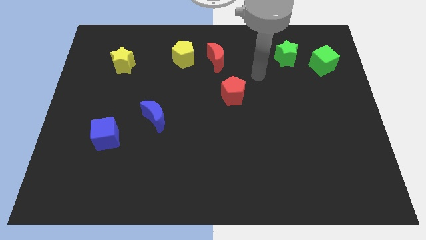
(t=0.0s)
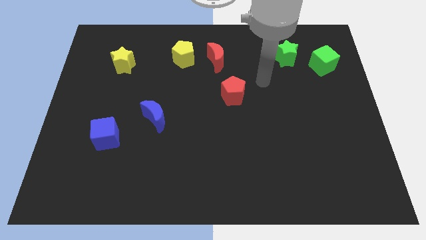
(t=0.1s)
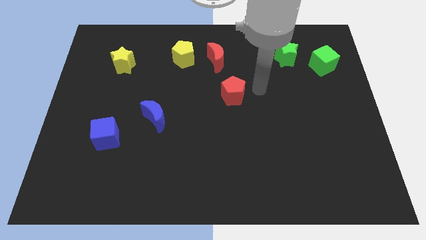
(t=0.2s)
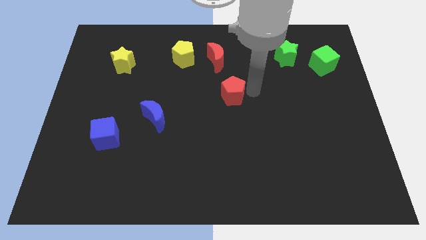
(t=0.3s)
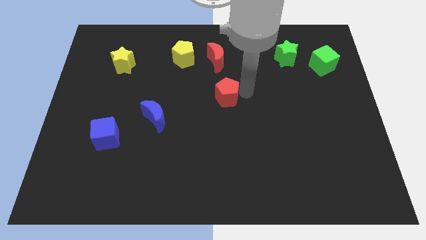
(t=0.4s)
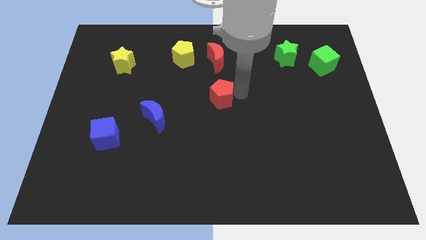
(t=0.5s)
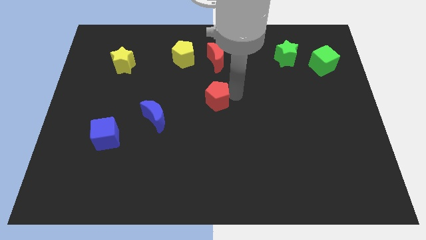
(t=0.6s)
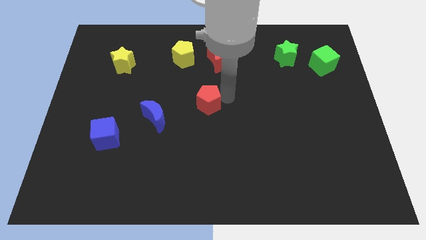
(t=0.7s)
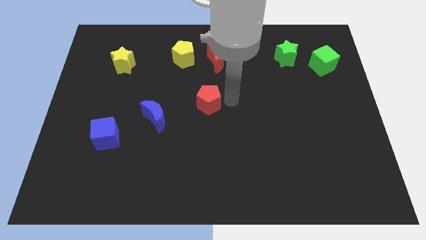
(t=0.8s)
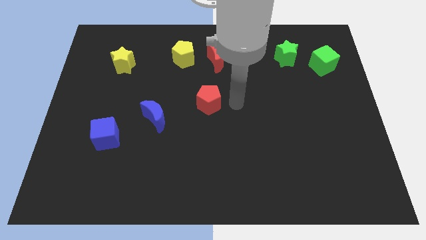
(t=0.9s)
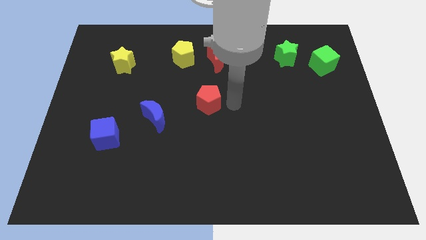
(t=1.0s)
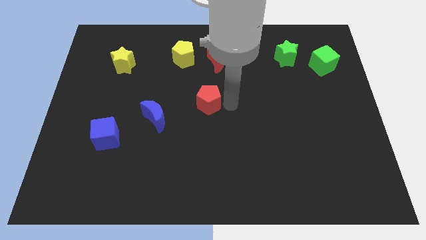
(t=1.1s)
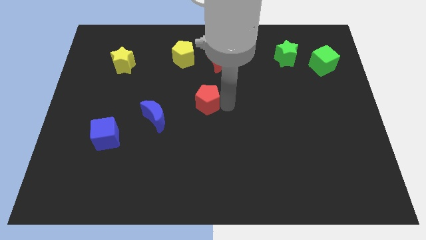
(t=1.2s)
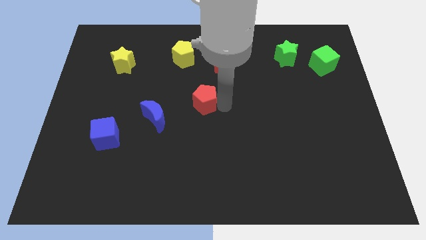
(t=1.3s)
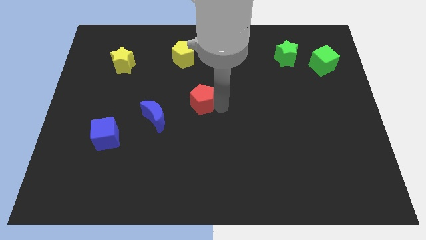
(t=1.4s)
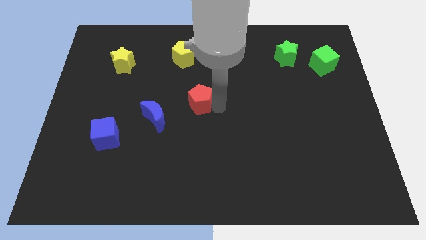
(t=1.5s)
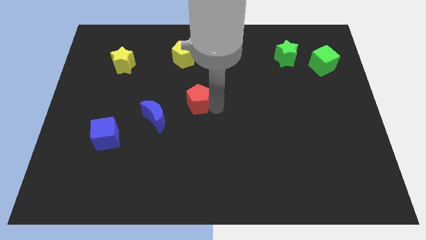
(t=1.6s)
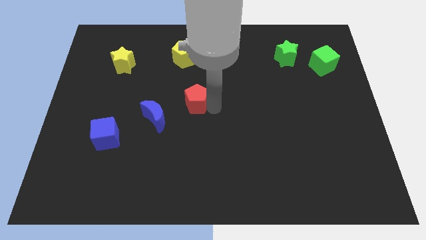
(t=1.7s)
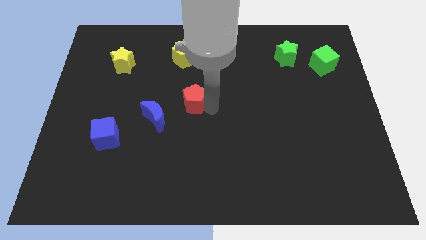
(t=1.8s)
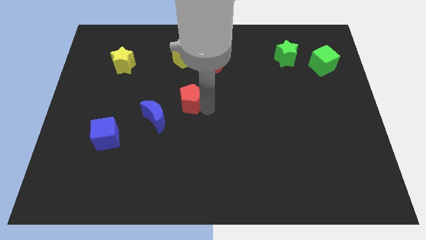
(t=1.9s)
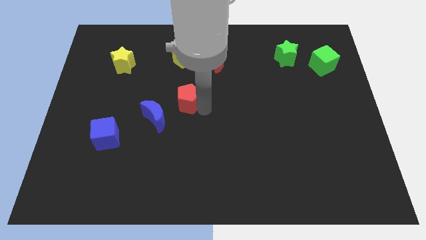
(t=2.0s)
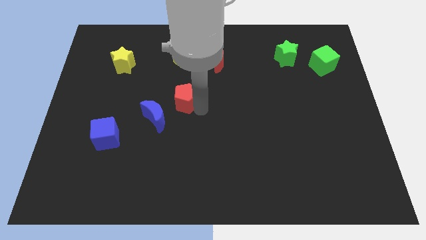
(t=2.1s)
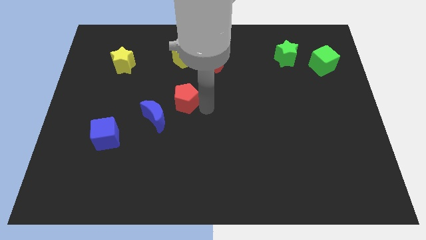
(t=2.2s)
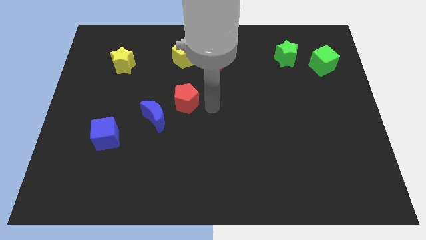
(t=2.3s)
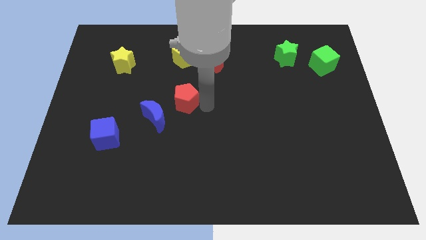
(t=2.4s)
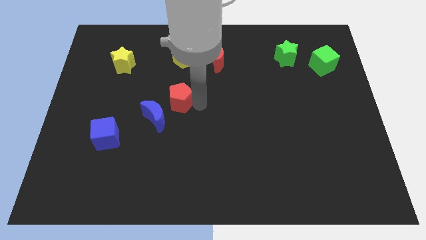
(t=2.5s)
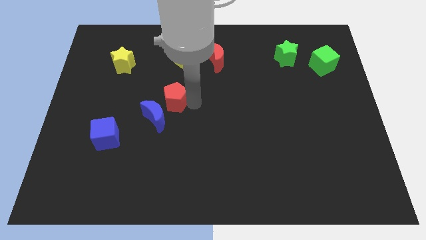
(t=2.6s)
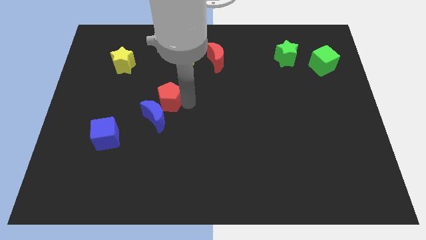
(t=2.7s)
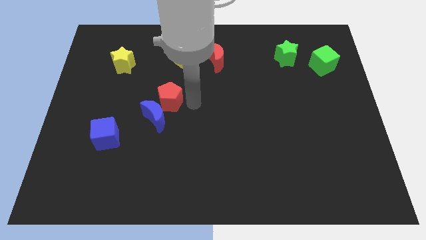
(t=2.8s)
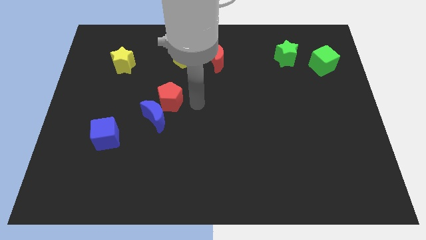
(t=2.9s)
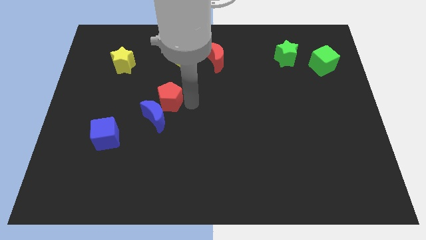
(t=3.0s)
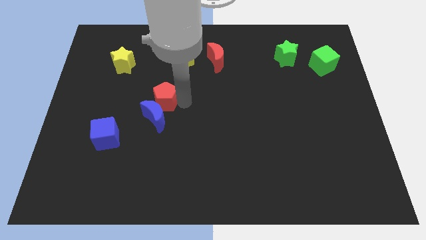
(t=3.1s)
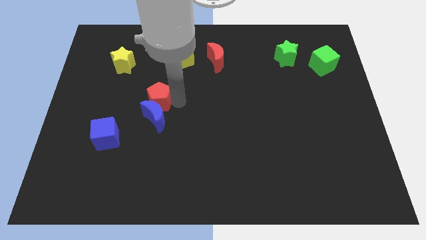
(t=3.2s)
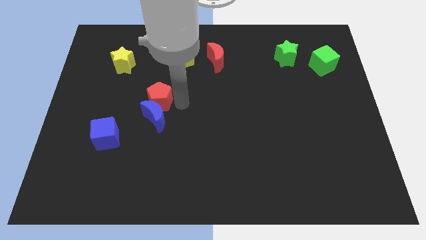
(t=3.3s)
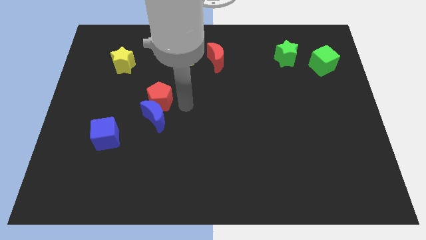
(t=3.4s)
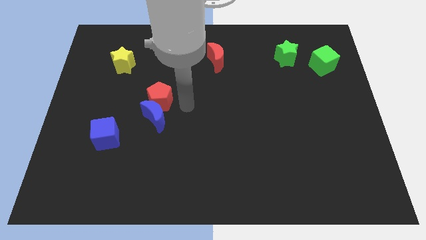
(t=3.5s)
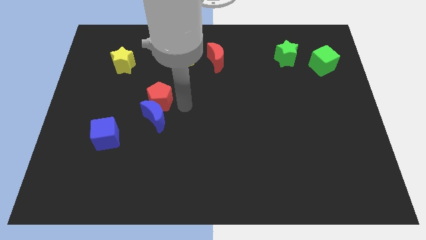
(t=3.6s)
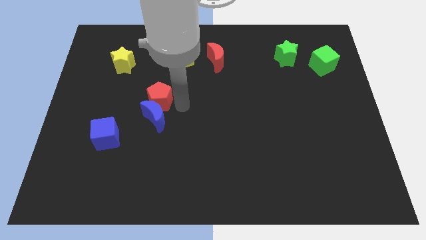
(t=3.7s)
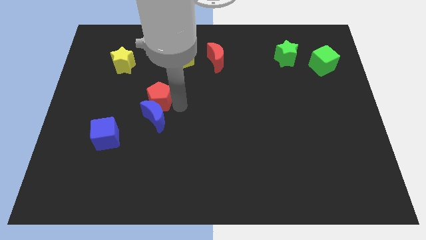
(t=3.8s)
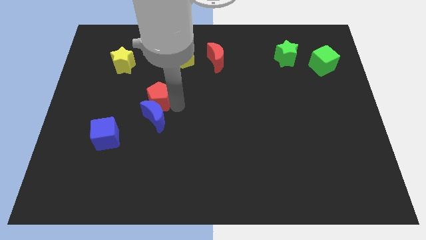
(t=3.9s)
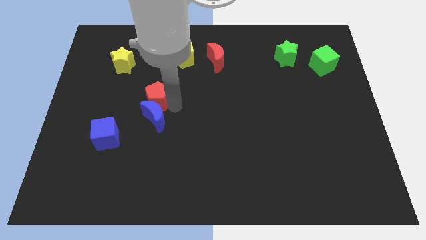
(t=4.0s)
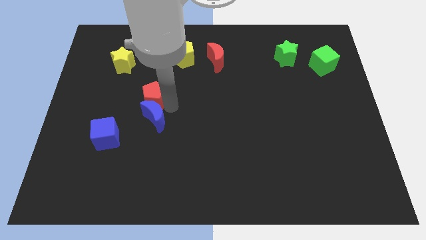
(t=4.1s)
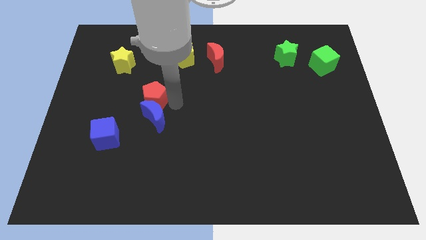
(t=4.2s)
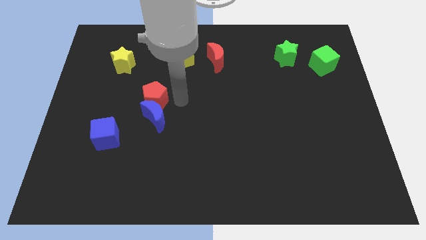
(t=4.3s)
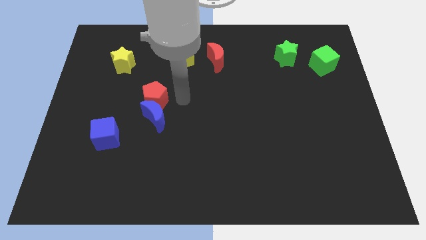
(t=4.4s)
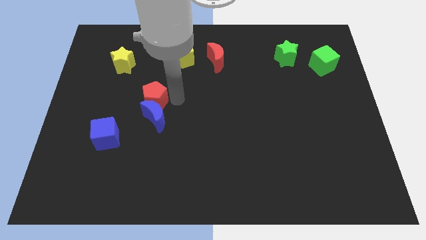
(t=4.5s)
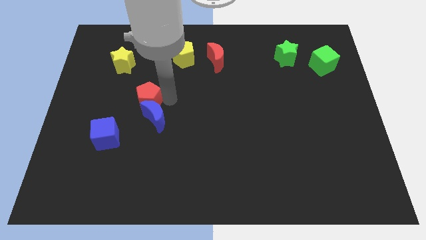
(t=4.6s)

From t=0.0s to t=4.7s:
slide the red pentagon left

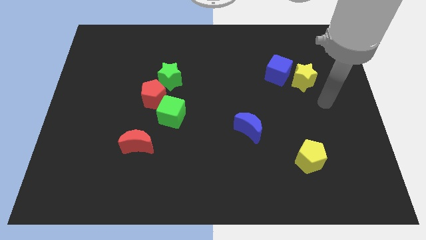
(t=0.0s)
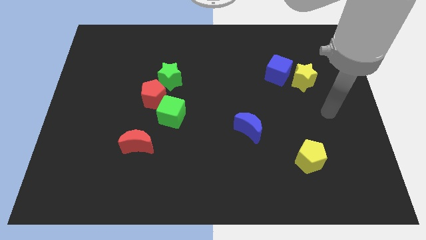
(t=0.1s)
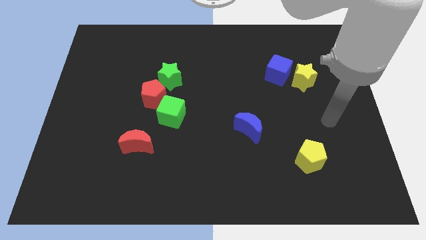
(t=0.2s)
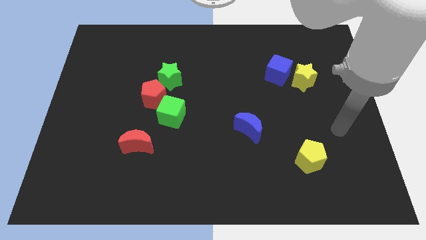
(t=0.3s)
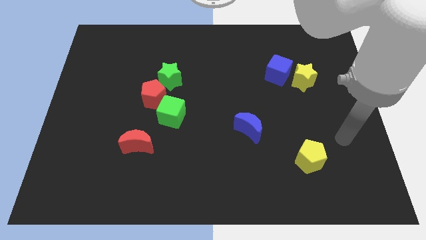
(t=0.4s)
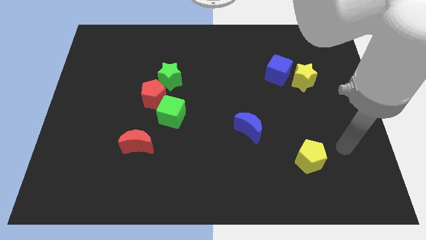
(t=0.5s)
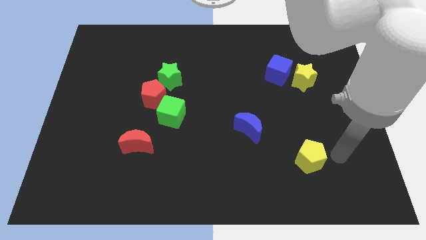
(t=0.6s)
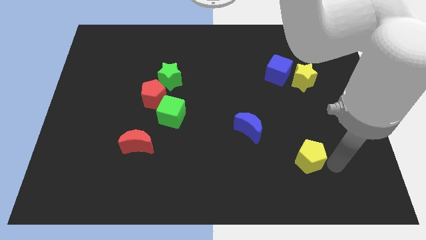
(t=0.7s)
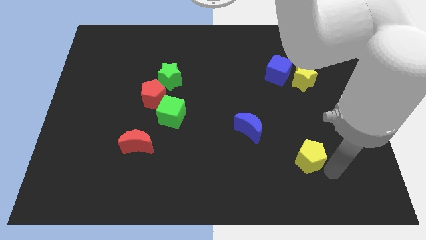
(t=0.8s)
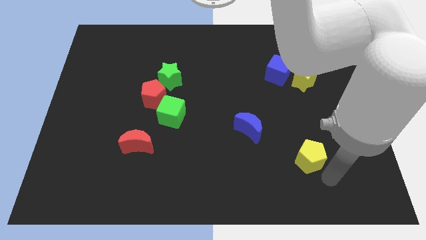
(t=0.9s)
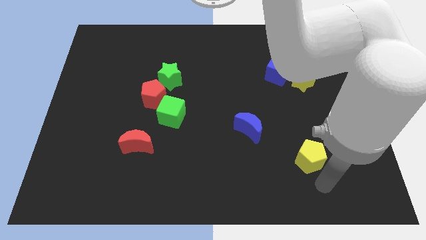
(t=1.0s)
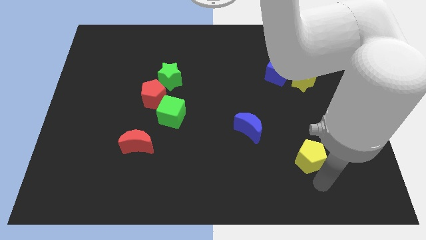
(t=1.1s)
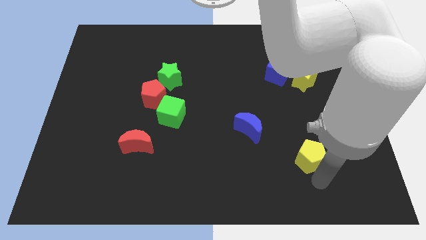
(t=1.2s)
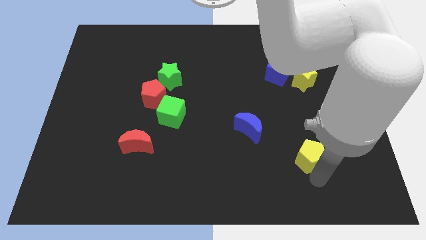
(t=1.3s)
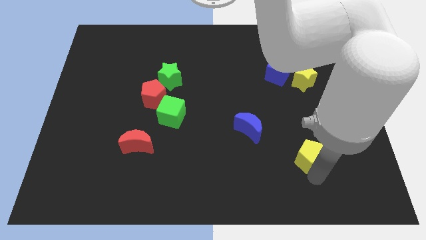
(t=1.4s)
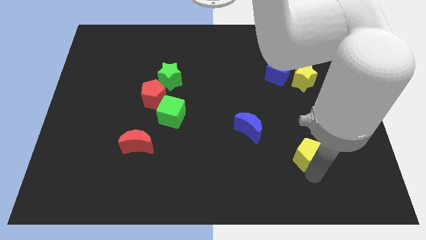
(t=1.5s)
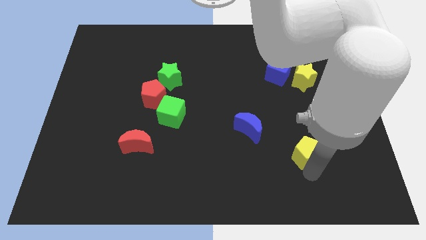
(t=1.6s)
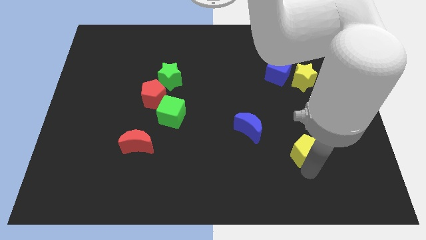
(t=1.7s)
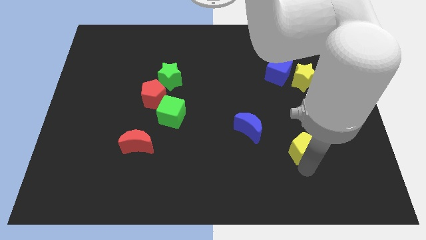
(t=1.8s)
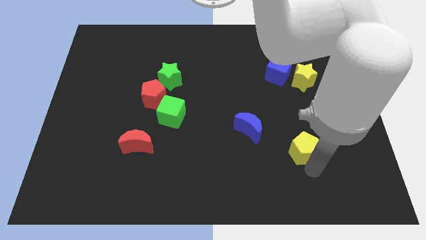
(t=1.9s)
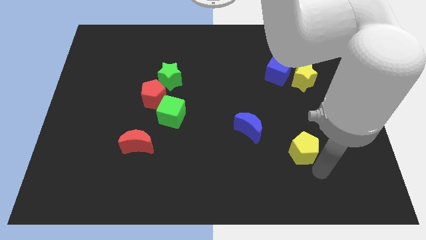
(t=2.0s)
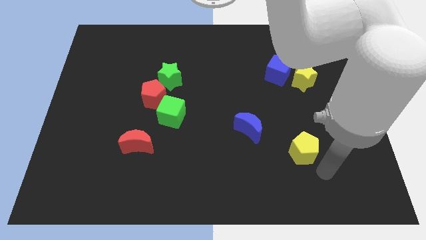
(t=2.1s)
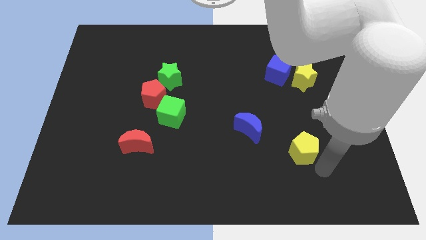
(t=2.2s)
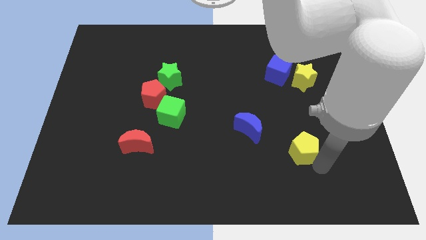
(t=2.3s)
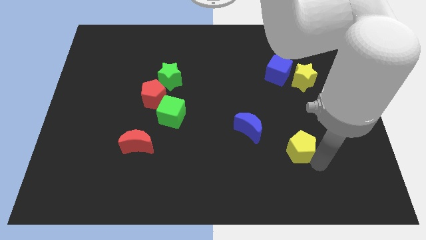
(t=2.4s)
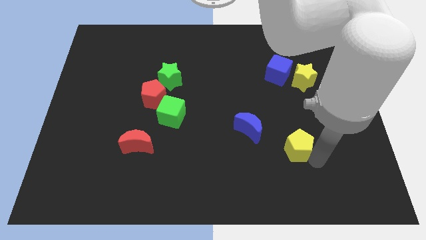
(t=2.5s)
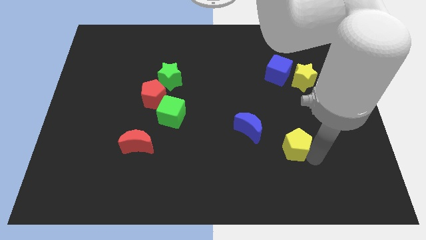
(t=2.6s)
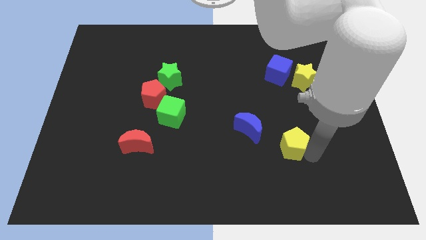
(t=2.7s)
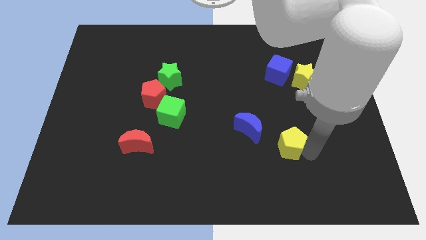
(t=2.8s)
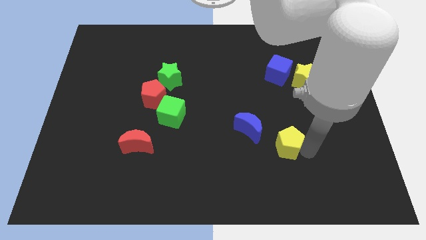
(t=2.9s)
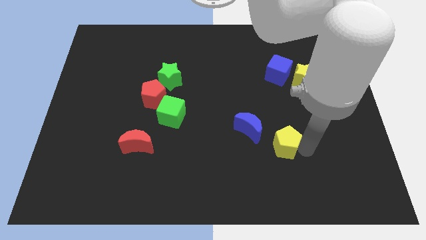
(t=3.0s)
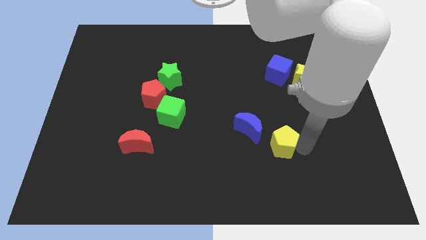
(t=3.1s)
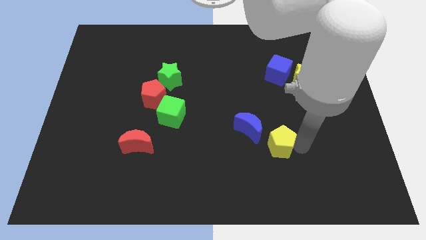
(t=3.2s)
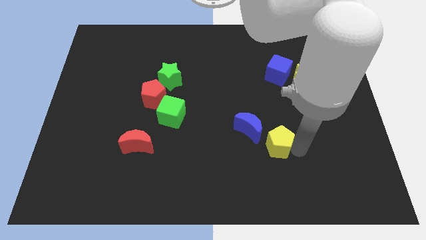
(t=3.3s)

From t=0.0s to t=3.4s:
slide the yellow pentagon upwards and to the left diagonally somewhat

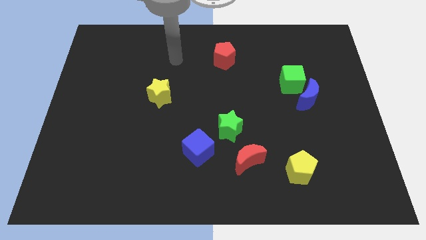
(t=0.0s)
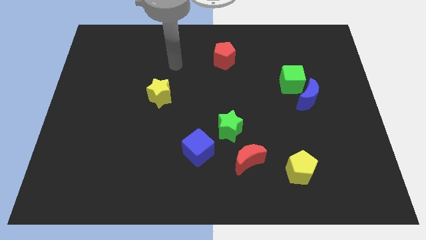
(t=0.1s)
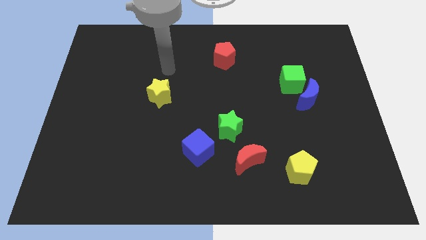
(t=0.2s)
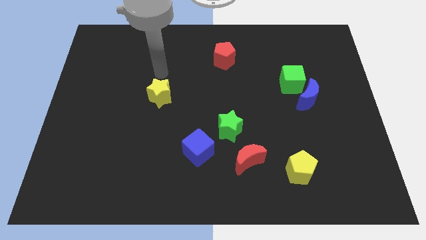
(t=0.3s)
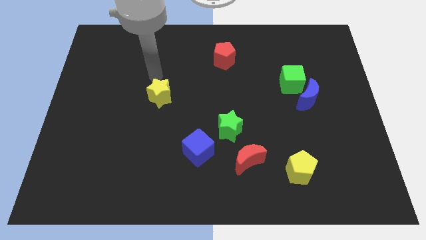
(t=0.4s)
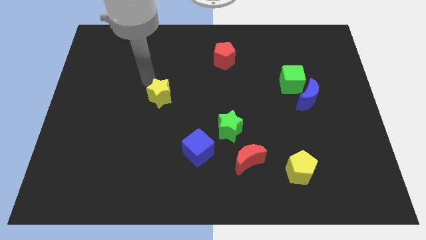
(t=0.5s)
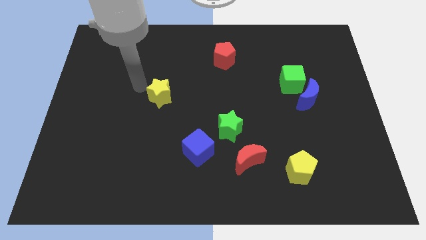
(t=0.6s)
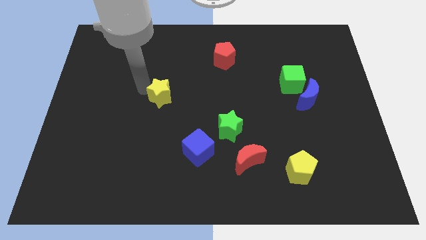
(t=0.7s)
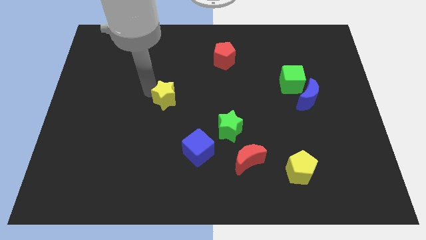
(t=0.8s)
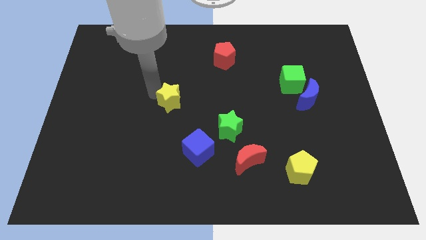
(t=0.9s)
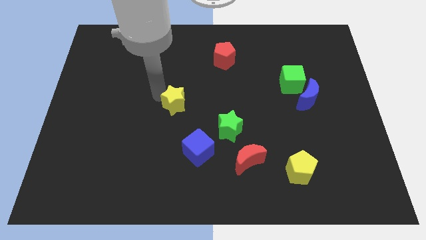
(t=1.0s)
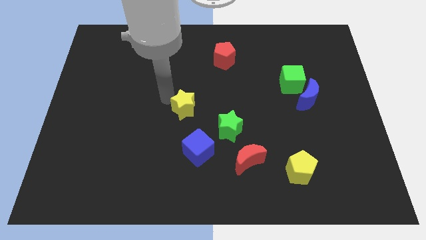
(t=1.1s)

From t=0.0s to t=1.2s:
push the yellow star downwards and then to the right a bit
